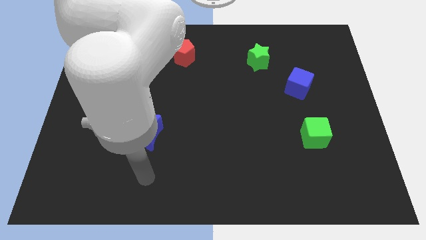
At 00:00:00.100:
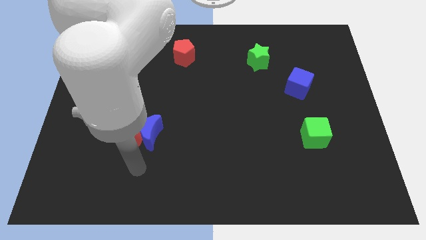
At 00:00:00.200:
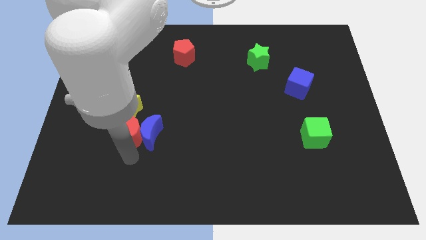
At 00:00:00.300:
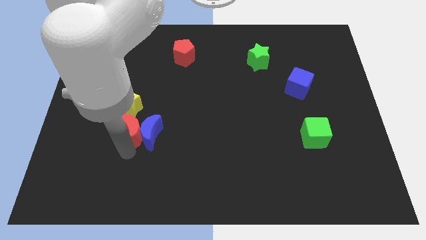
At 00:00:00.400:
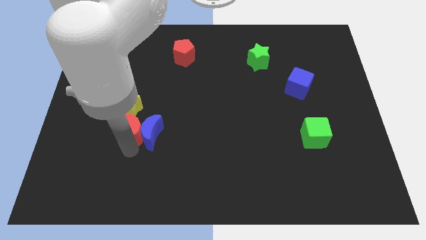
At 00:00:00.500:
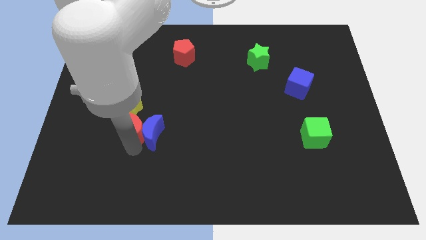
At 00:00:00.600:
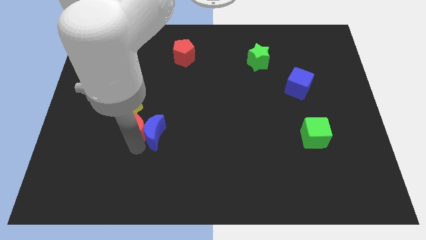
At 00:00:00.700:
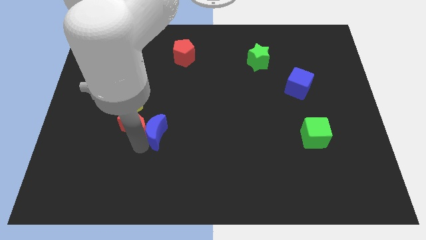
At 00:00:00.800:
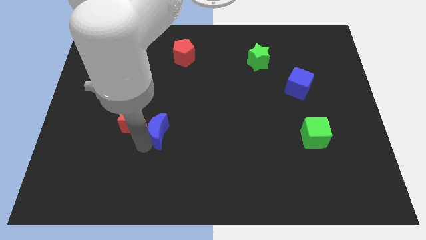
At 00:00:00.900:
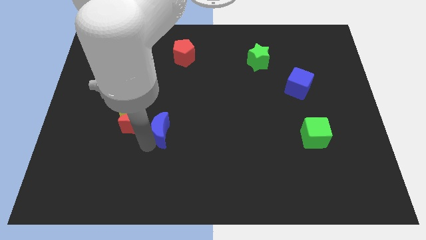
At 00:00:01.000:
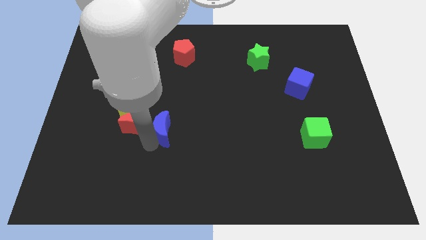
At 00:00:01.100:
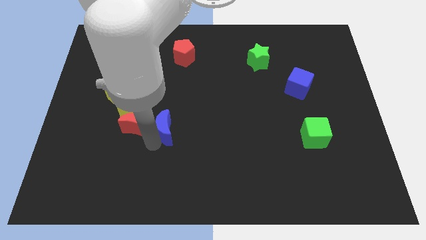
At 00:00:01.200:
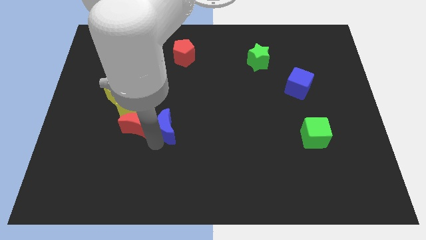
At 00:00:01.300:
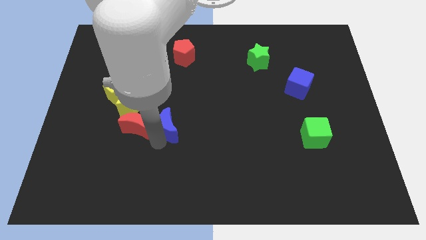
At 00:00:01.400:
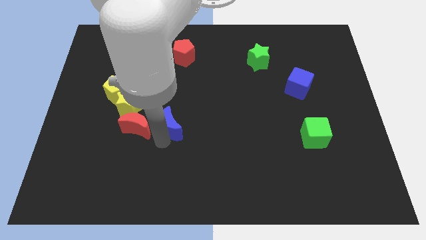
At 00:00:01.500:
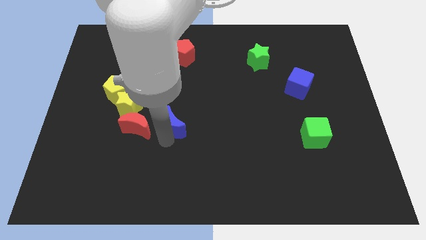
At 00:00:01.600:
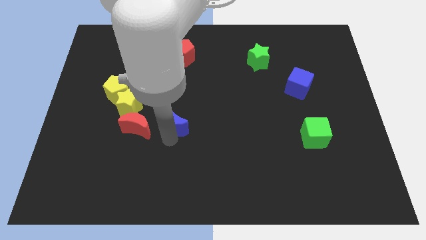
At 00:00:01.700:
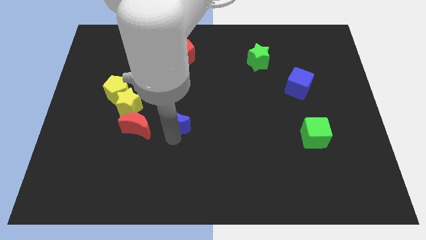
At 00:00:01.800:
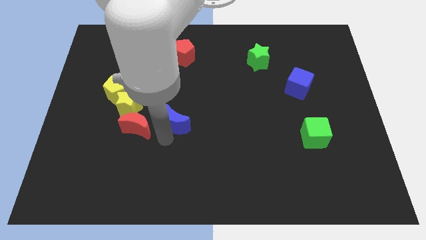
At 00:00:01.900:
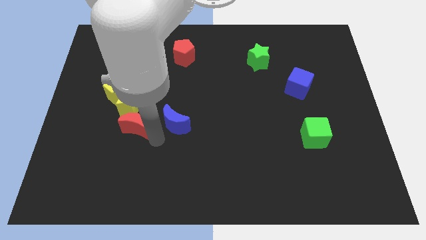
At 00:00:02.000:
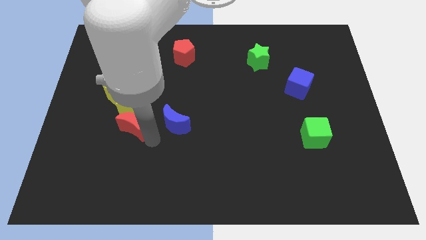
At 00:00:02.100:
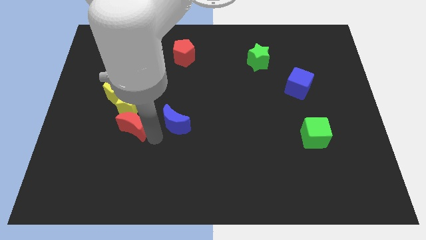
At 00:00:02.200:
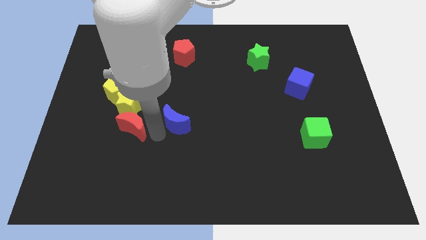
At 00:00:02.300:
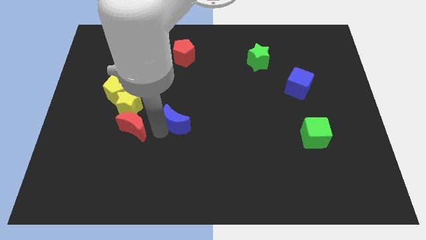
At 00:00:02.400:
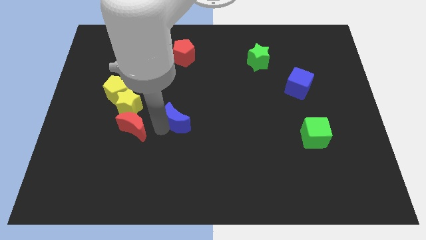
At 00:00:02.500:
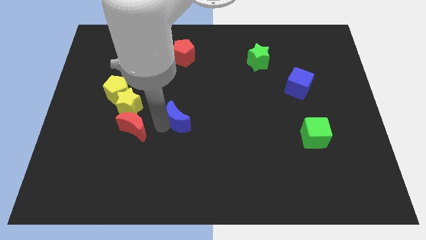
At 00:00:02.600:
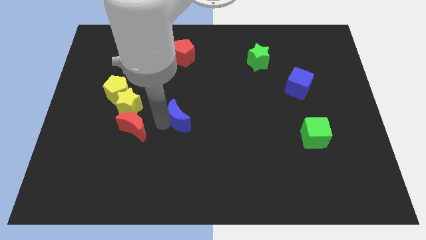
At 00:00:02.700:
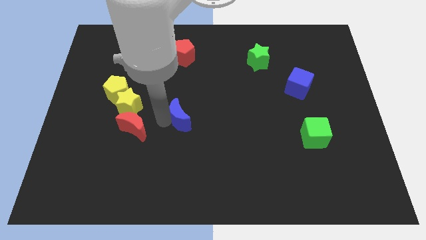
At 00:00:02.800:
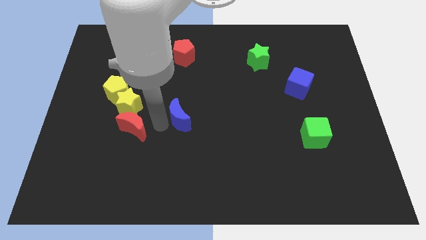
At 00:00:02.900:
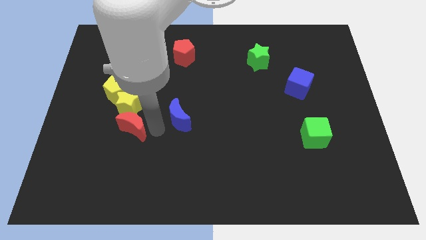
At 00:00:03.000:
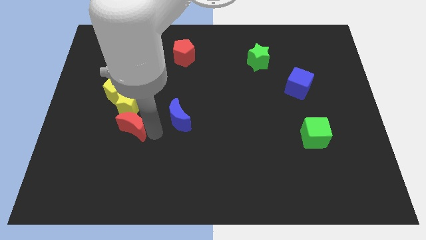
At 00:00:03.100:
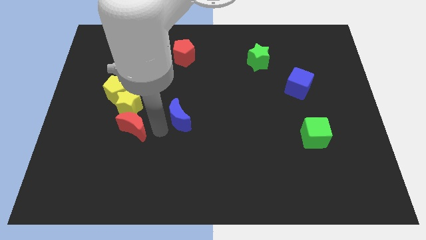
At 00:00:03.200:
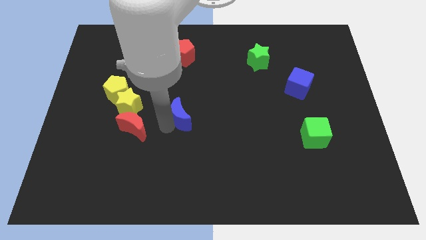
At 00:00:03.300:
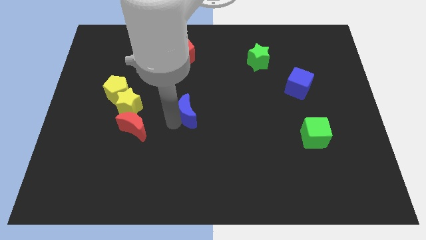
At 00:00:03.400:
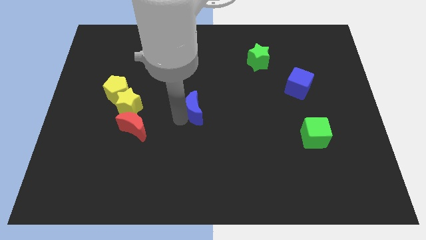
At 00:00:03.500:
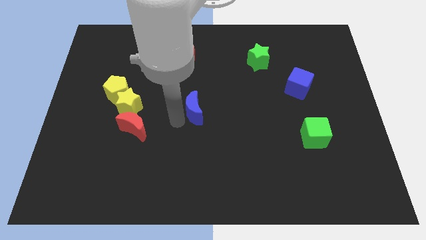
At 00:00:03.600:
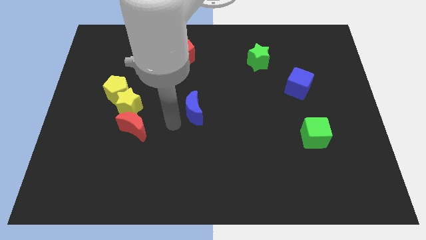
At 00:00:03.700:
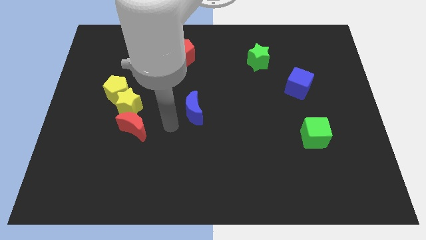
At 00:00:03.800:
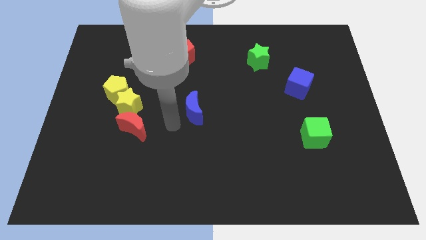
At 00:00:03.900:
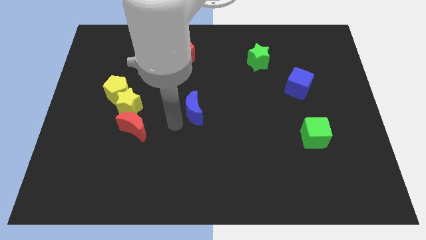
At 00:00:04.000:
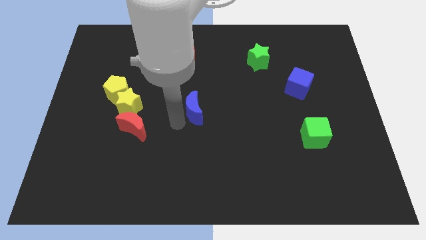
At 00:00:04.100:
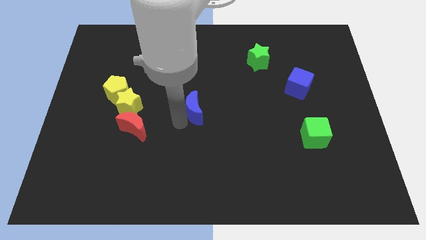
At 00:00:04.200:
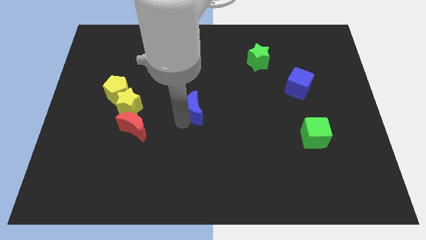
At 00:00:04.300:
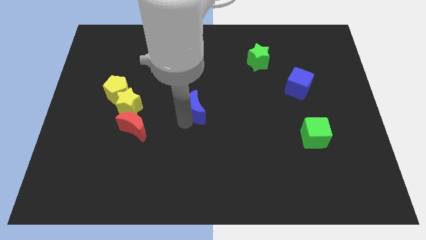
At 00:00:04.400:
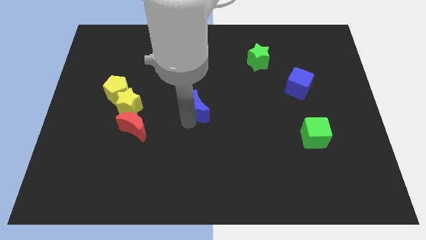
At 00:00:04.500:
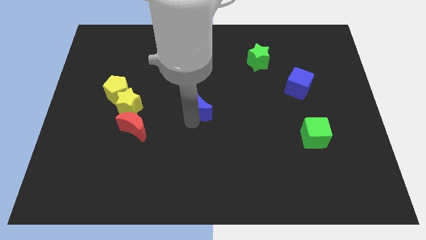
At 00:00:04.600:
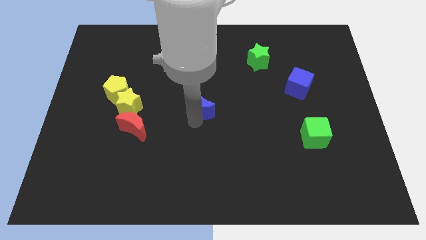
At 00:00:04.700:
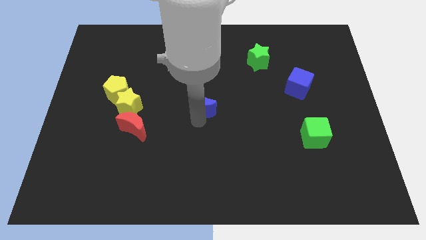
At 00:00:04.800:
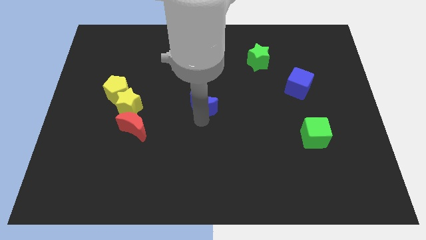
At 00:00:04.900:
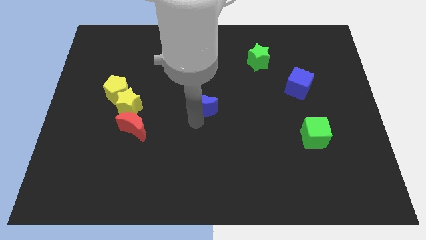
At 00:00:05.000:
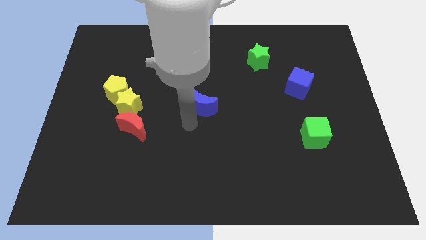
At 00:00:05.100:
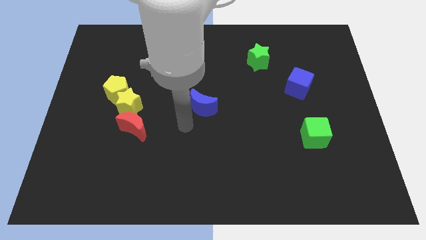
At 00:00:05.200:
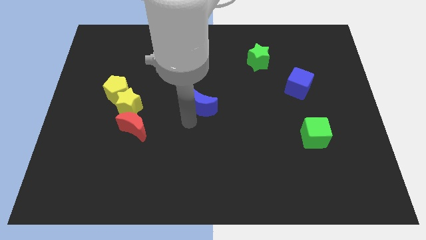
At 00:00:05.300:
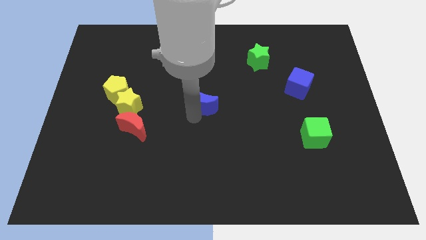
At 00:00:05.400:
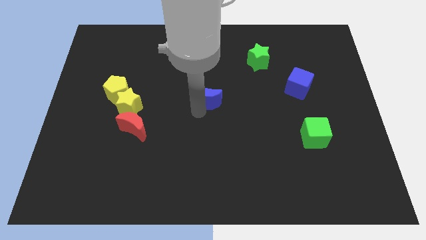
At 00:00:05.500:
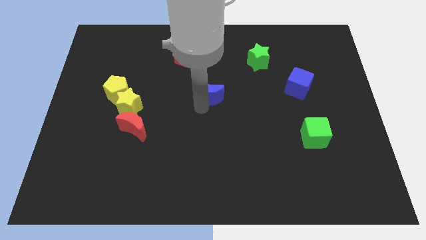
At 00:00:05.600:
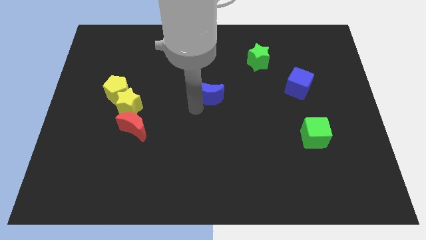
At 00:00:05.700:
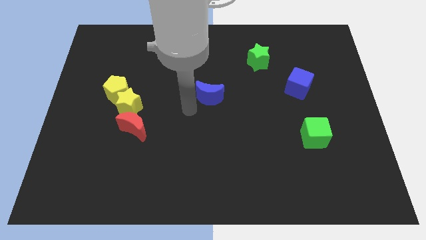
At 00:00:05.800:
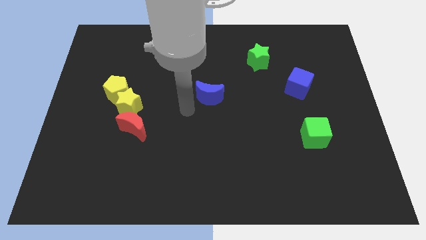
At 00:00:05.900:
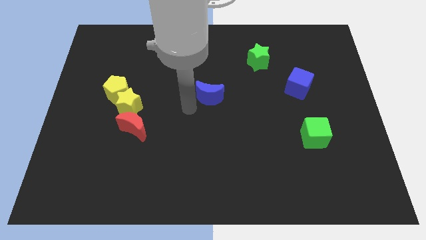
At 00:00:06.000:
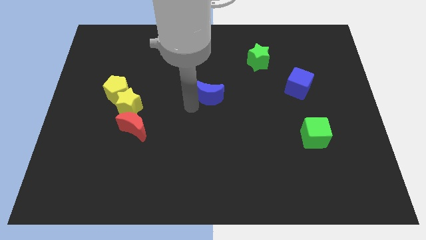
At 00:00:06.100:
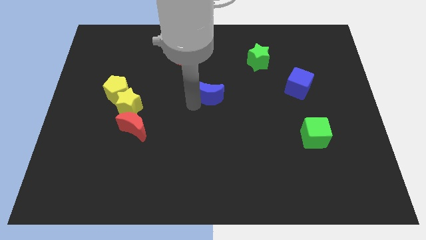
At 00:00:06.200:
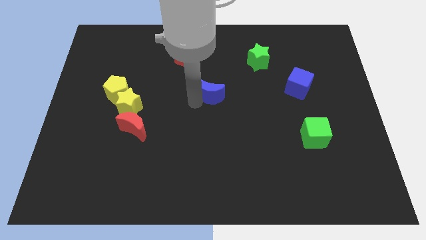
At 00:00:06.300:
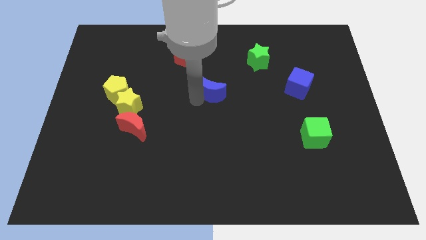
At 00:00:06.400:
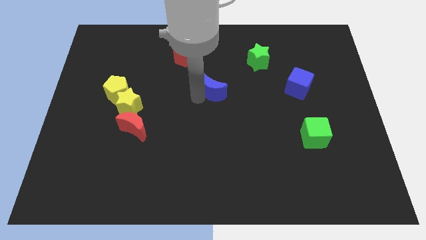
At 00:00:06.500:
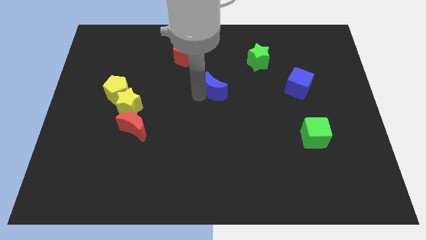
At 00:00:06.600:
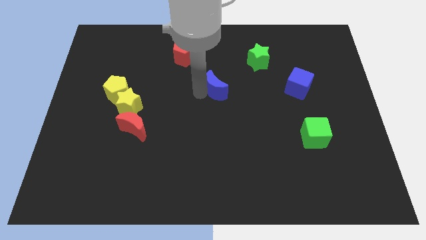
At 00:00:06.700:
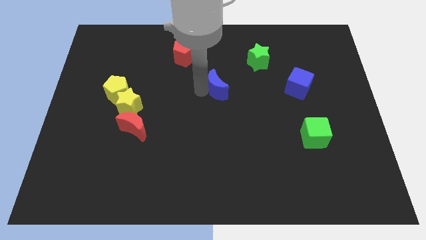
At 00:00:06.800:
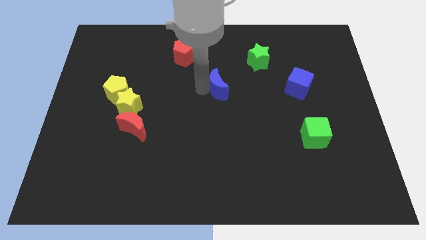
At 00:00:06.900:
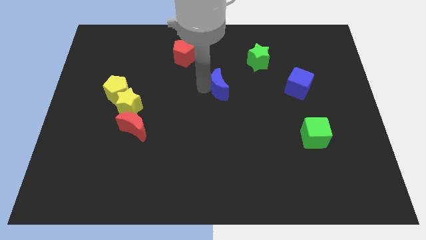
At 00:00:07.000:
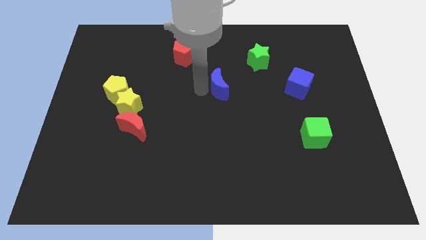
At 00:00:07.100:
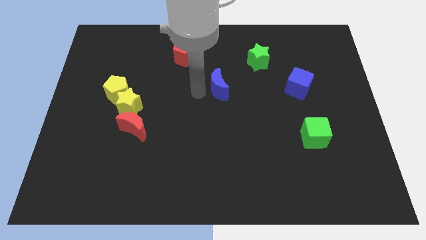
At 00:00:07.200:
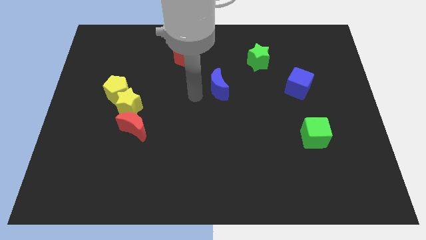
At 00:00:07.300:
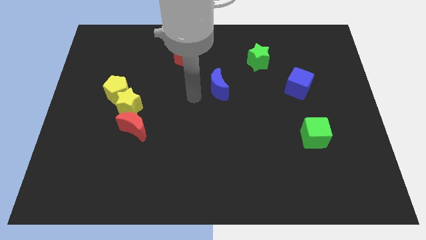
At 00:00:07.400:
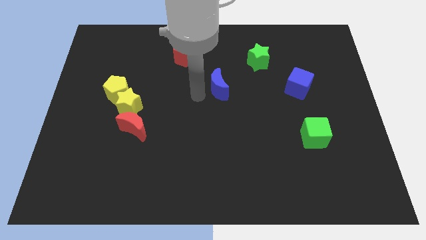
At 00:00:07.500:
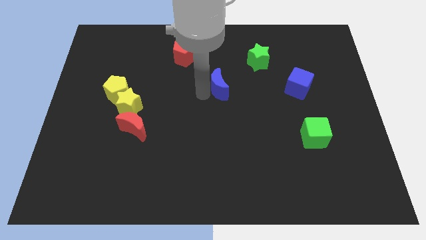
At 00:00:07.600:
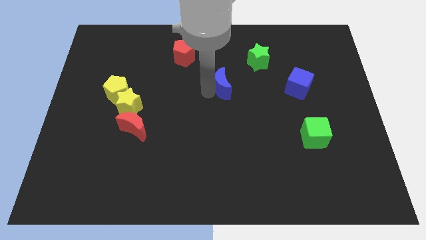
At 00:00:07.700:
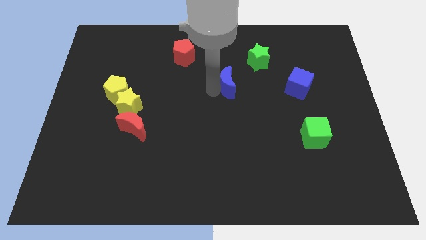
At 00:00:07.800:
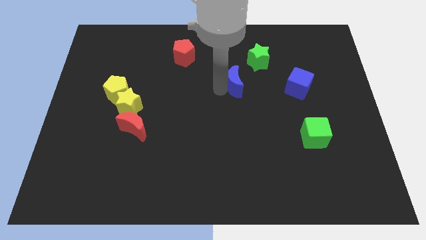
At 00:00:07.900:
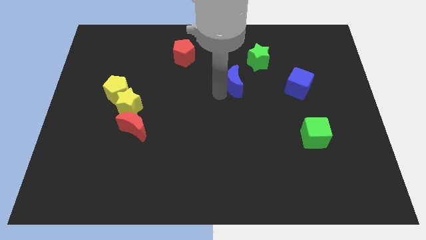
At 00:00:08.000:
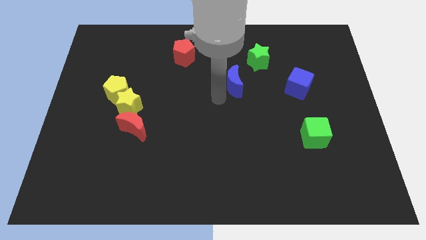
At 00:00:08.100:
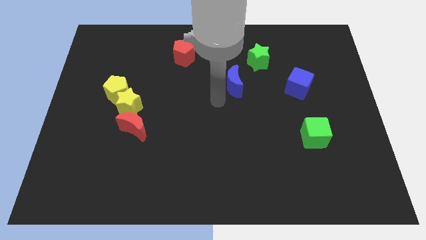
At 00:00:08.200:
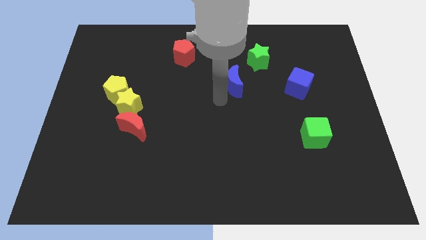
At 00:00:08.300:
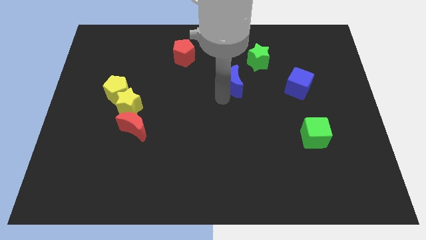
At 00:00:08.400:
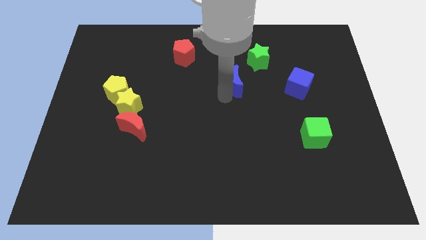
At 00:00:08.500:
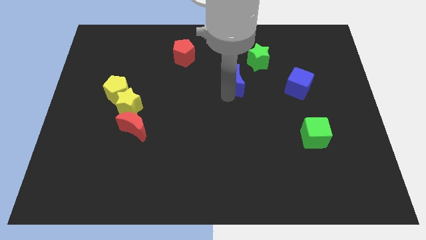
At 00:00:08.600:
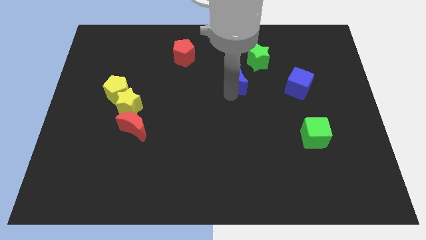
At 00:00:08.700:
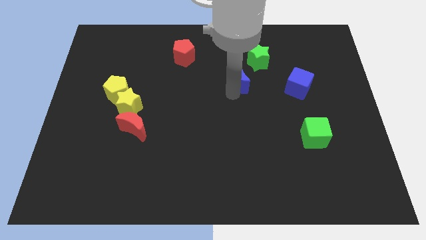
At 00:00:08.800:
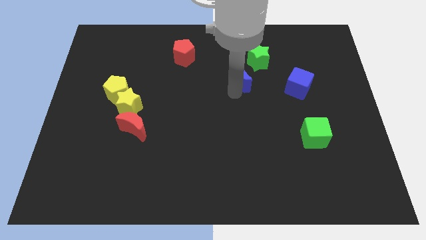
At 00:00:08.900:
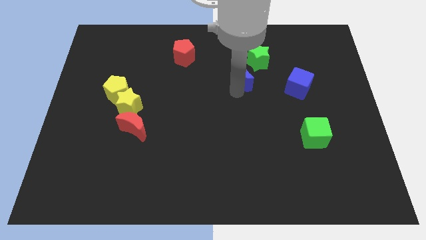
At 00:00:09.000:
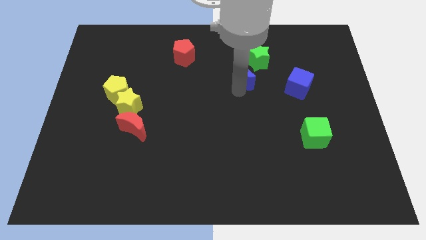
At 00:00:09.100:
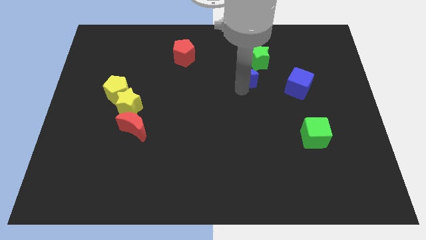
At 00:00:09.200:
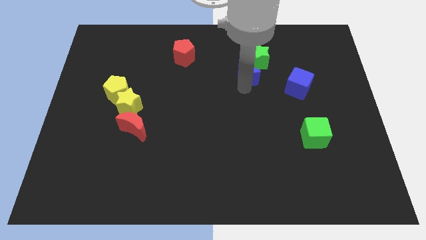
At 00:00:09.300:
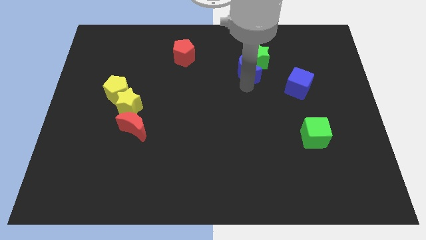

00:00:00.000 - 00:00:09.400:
move the blue moon close to the green star
